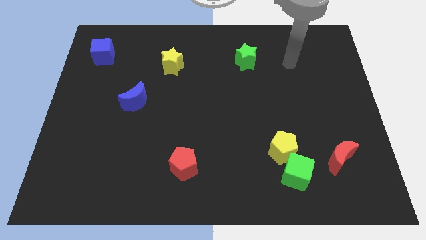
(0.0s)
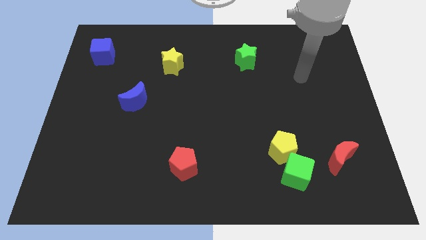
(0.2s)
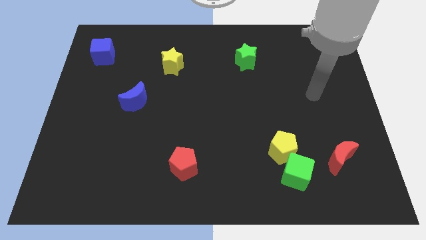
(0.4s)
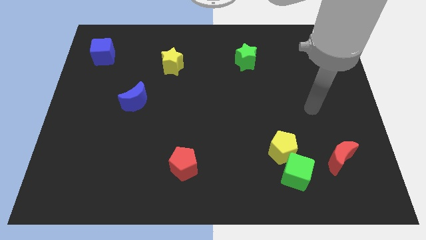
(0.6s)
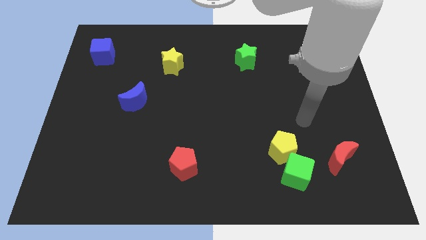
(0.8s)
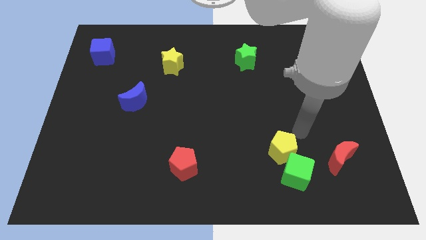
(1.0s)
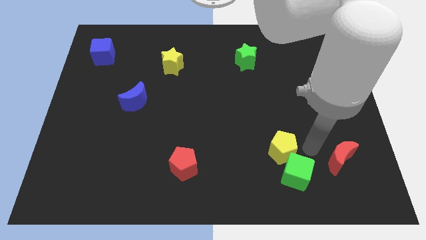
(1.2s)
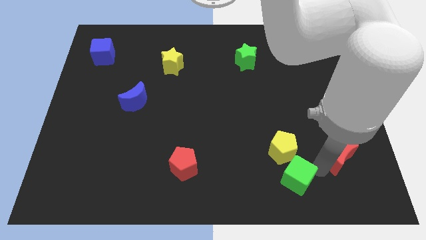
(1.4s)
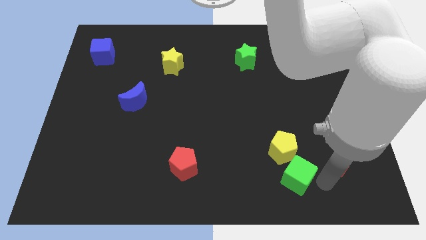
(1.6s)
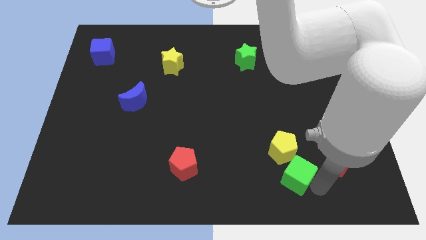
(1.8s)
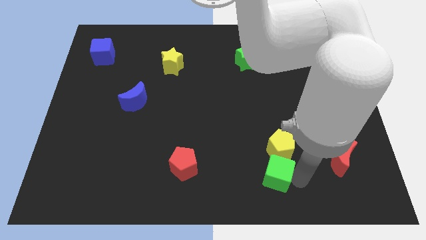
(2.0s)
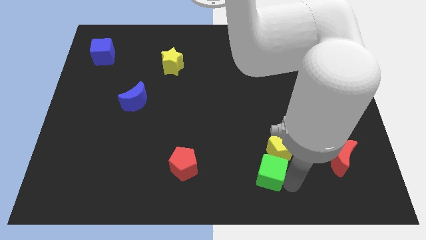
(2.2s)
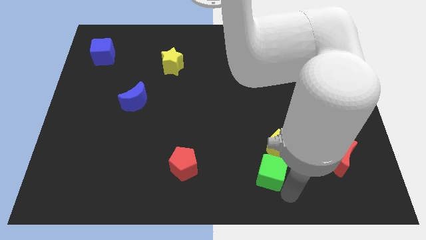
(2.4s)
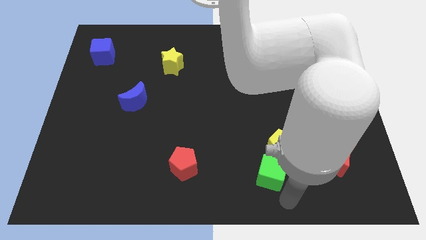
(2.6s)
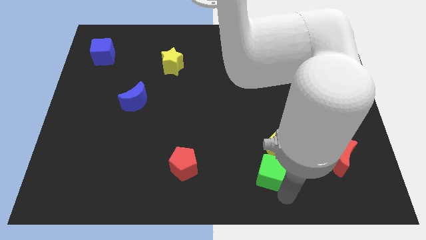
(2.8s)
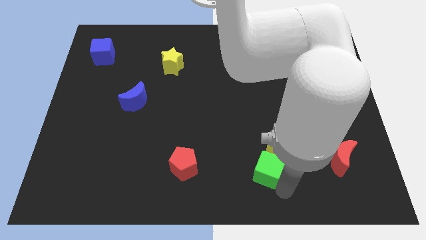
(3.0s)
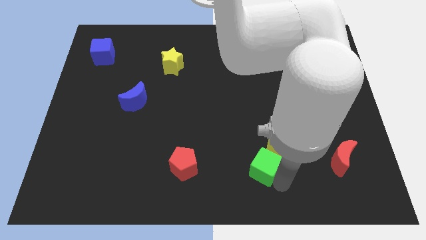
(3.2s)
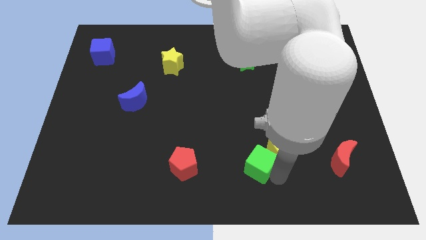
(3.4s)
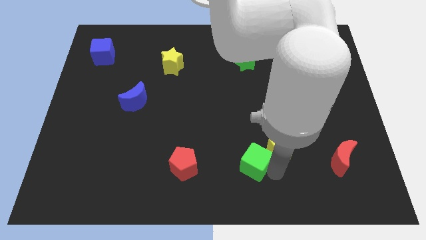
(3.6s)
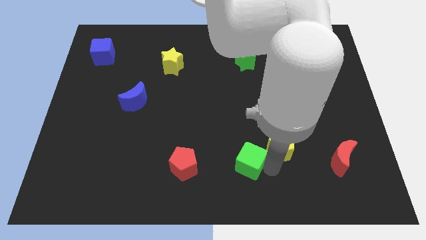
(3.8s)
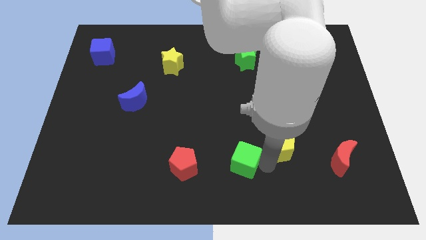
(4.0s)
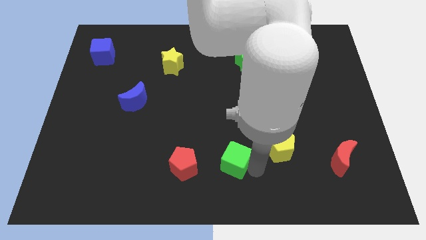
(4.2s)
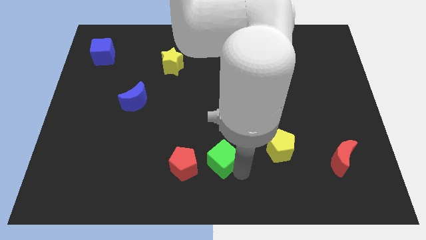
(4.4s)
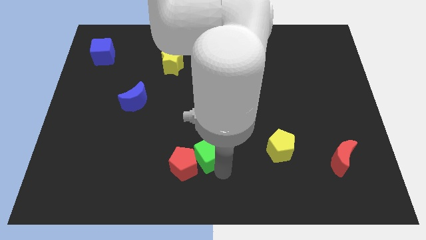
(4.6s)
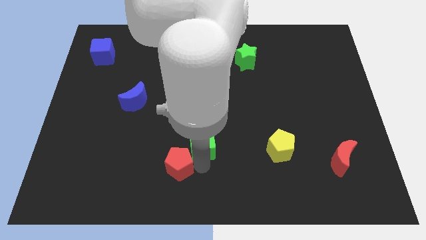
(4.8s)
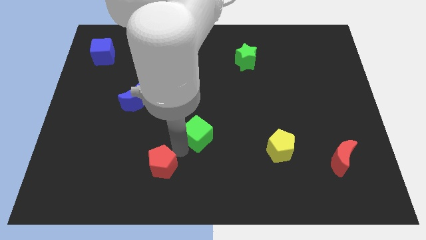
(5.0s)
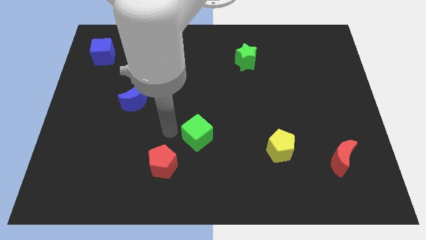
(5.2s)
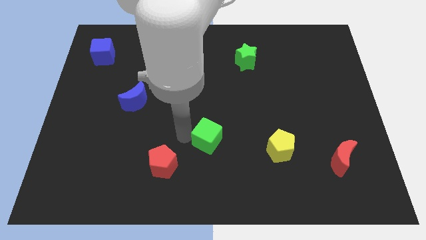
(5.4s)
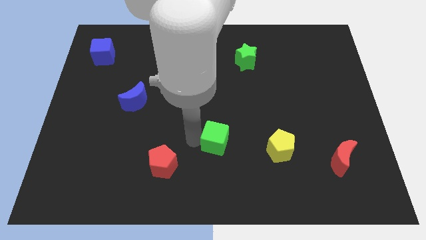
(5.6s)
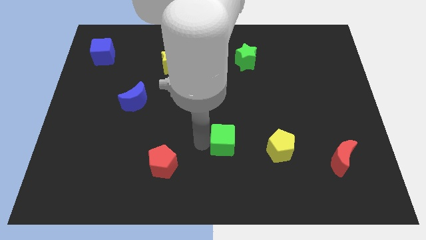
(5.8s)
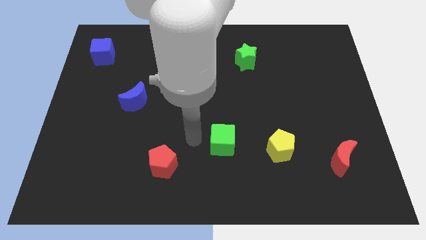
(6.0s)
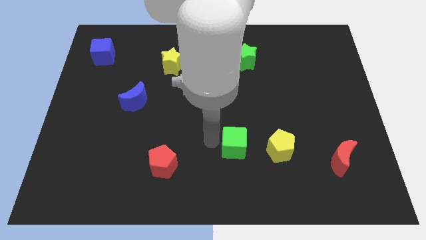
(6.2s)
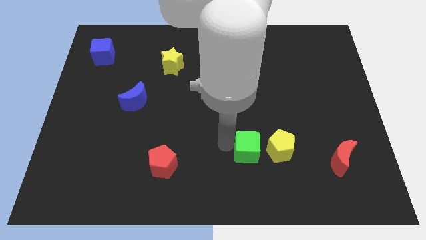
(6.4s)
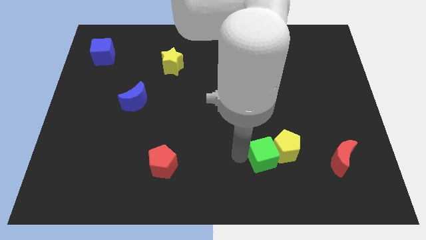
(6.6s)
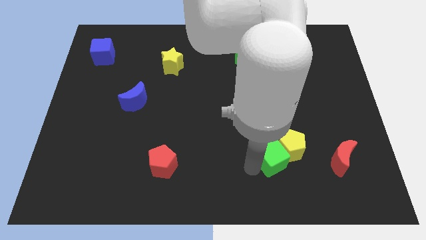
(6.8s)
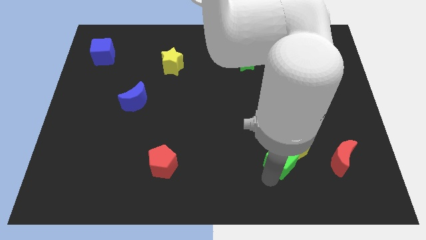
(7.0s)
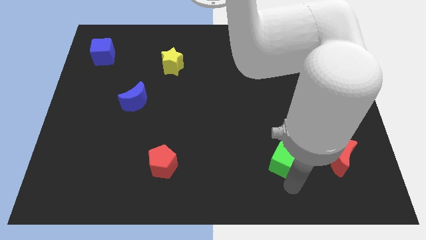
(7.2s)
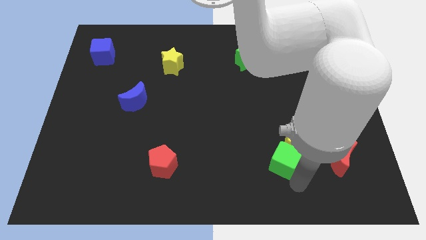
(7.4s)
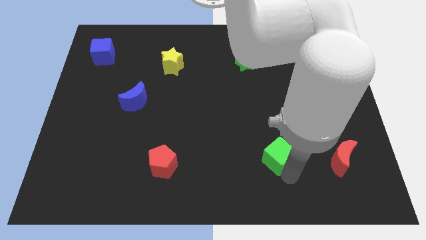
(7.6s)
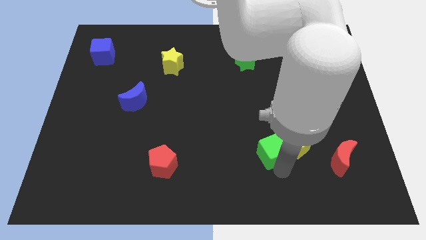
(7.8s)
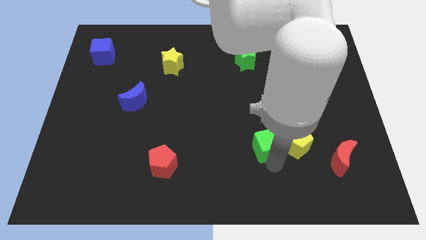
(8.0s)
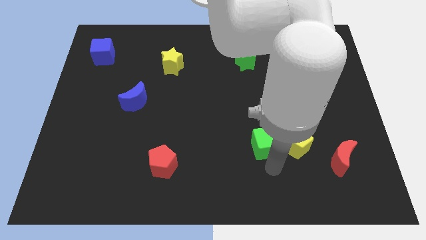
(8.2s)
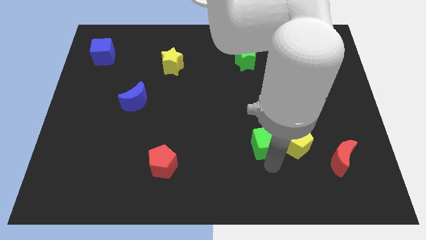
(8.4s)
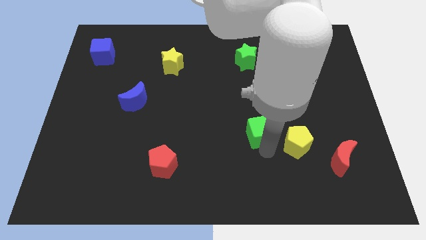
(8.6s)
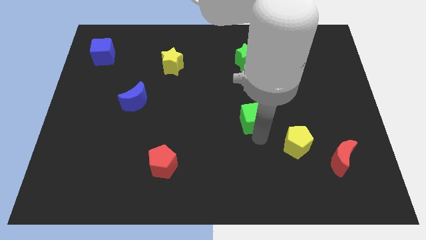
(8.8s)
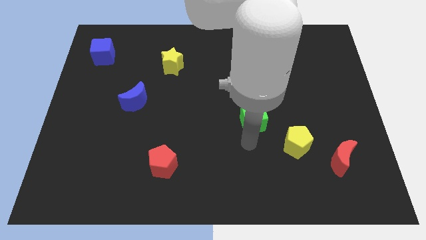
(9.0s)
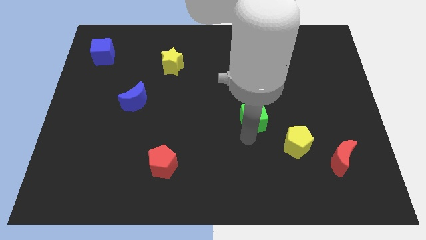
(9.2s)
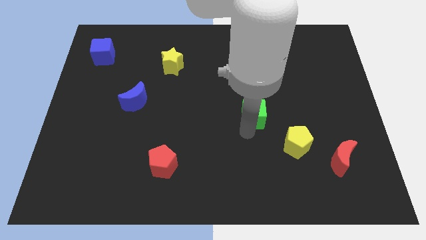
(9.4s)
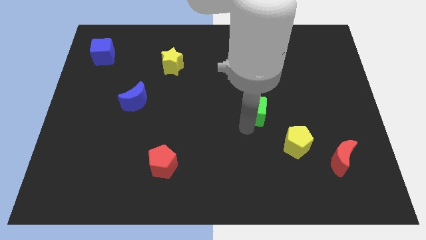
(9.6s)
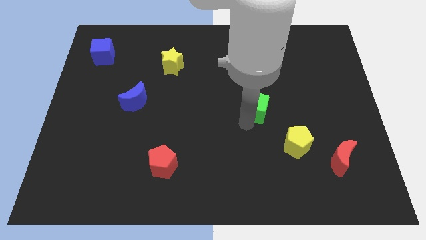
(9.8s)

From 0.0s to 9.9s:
move the green cube to the bottom of the green star

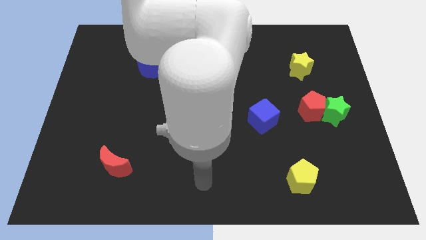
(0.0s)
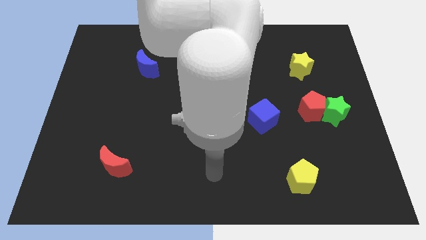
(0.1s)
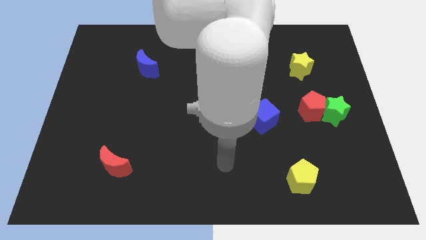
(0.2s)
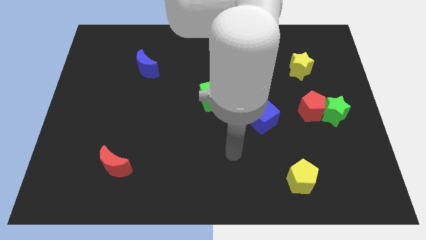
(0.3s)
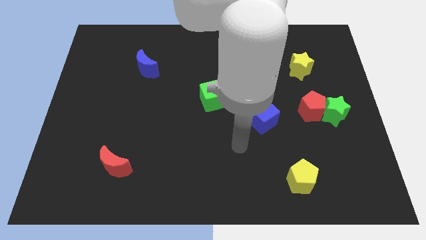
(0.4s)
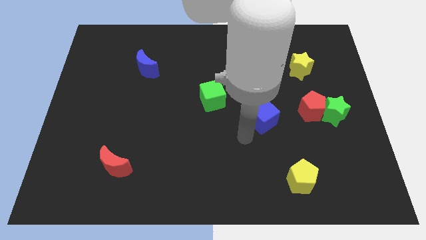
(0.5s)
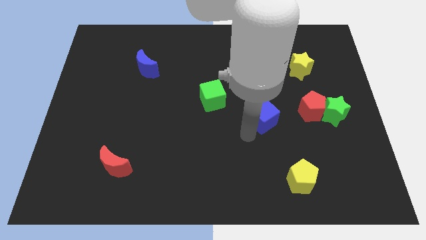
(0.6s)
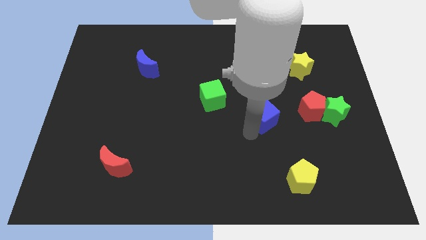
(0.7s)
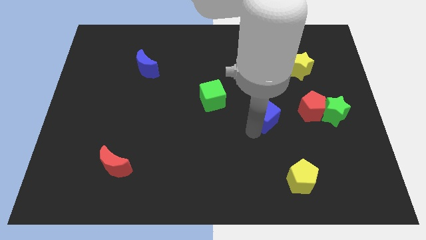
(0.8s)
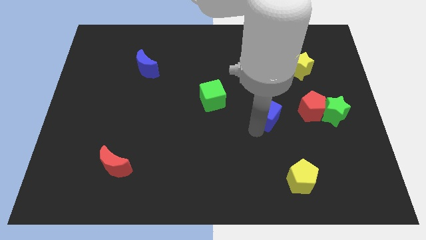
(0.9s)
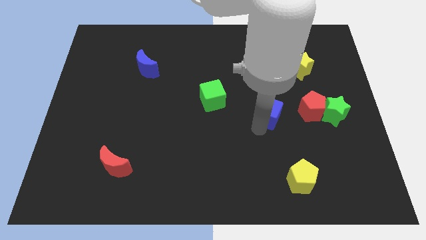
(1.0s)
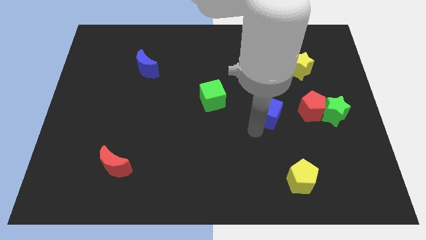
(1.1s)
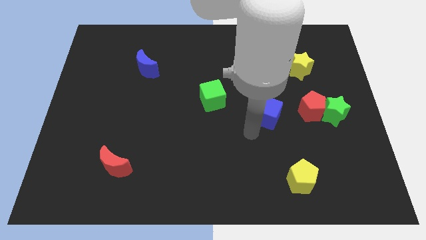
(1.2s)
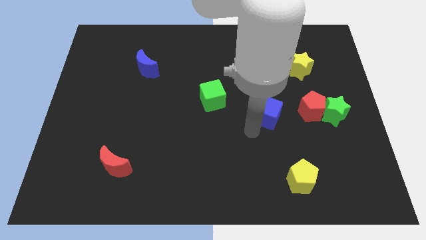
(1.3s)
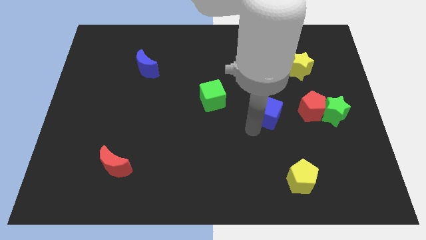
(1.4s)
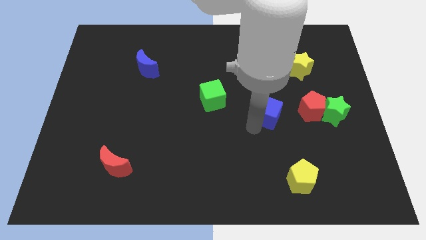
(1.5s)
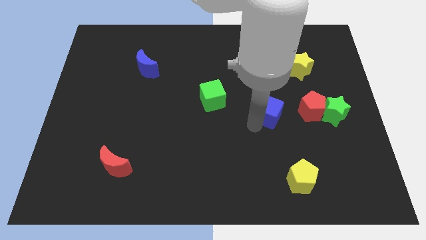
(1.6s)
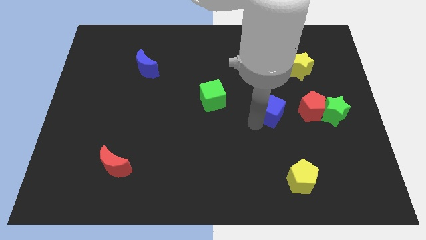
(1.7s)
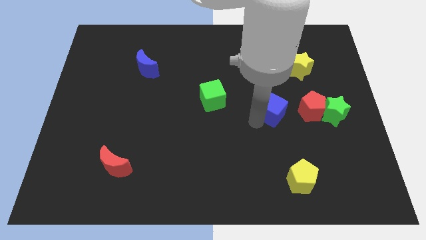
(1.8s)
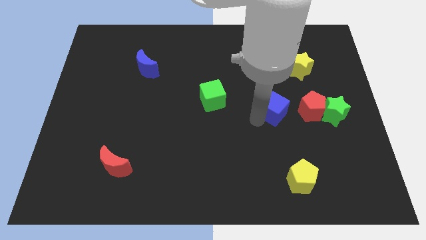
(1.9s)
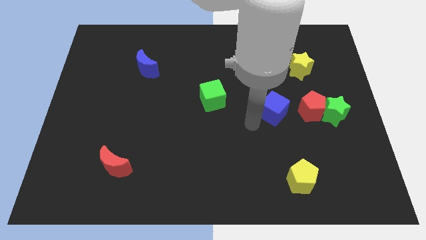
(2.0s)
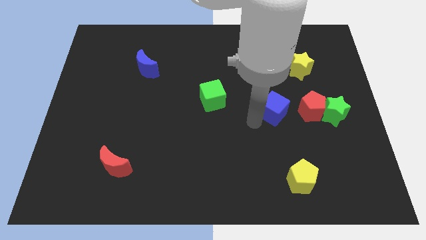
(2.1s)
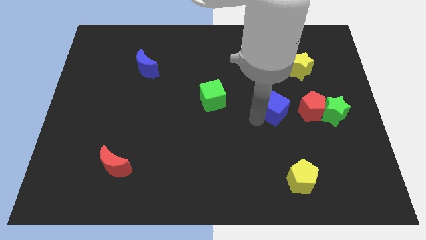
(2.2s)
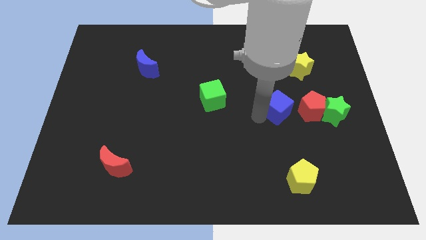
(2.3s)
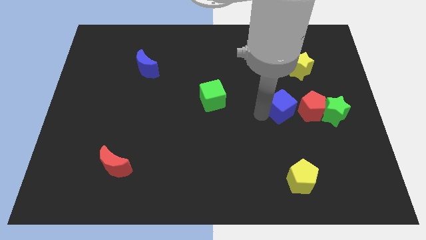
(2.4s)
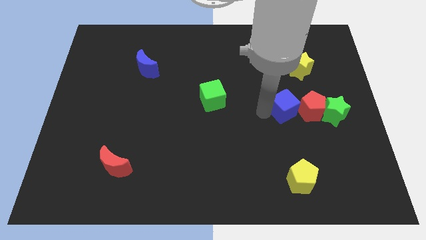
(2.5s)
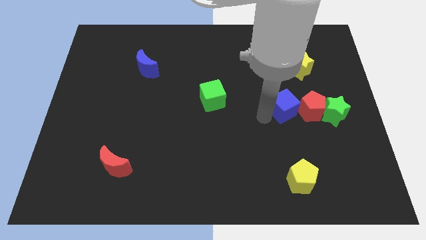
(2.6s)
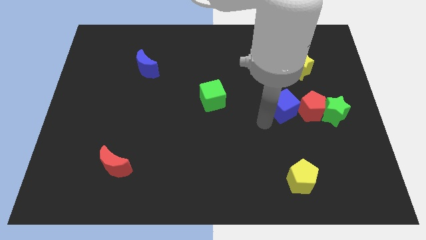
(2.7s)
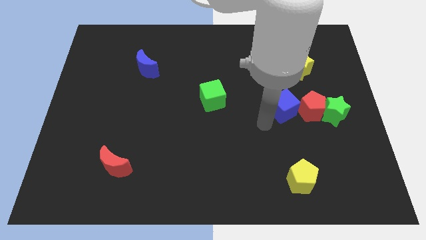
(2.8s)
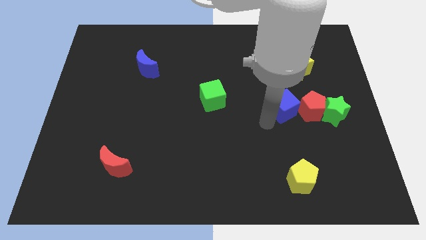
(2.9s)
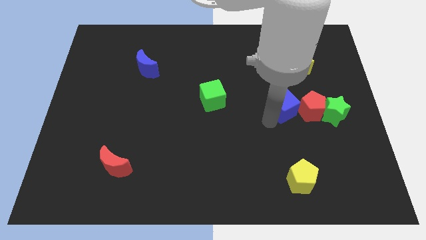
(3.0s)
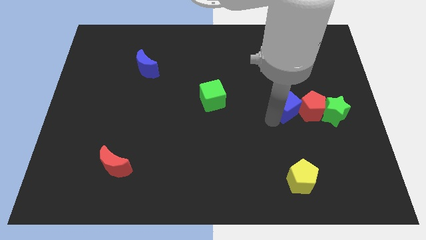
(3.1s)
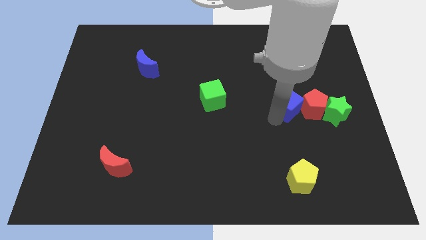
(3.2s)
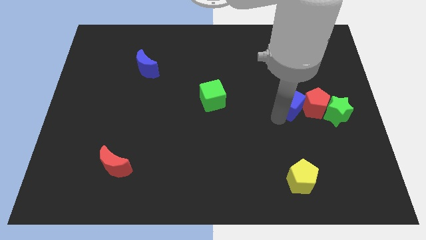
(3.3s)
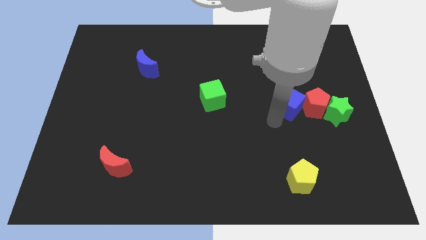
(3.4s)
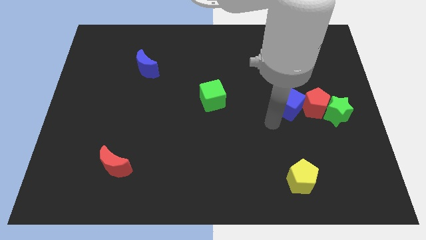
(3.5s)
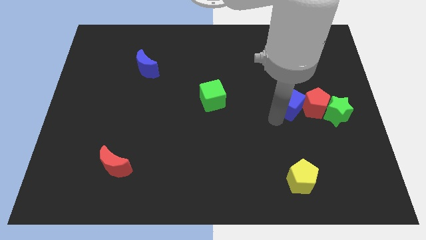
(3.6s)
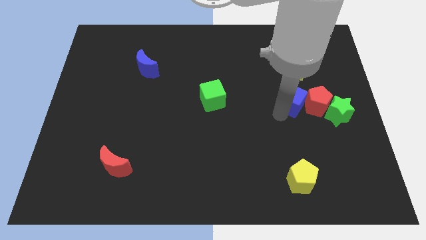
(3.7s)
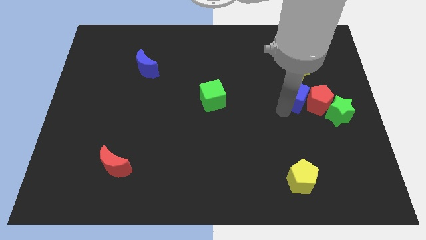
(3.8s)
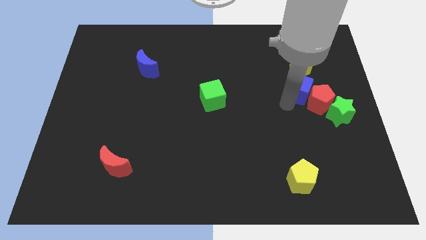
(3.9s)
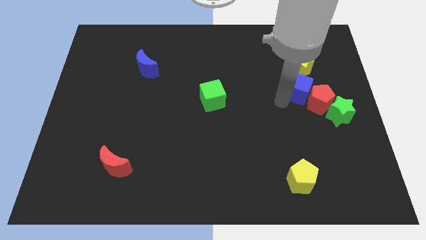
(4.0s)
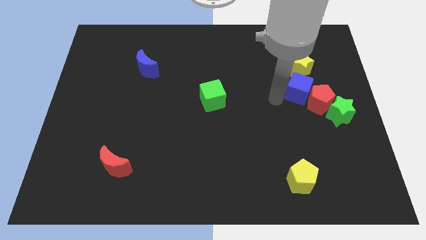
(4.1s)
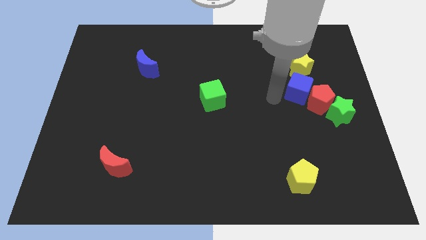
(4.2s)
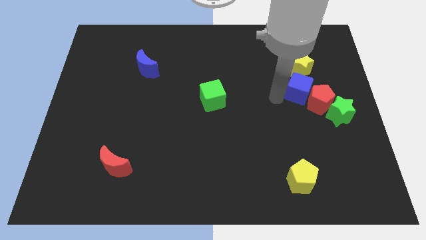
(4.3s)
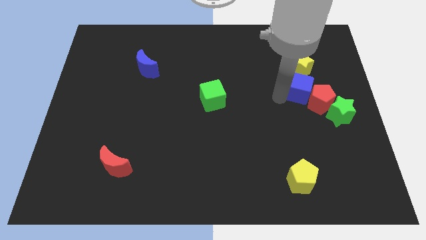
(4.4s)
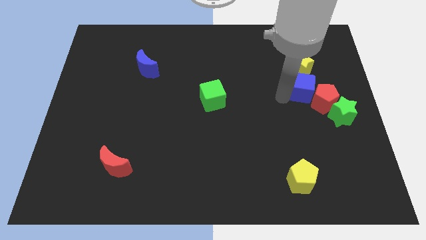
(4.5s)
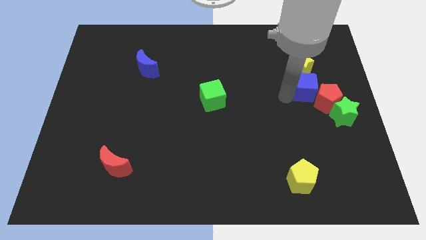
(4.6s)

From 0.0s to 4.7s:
push the blue cube diagonally down and to the right of the yellow star
